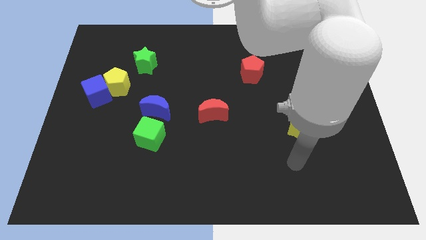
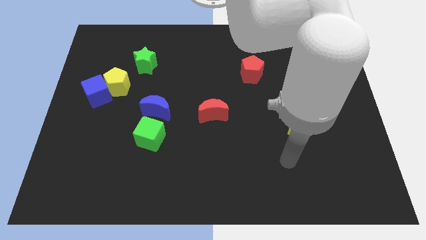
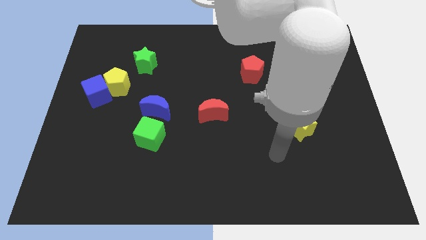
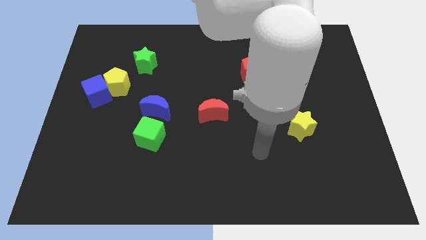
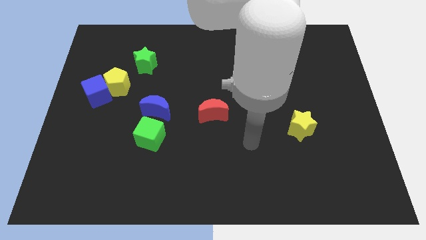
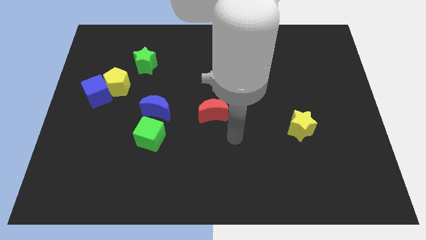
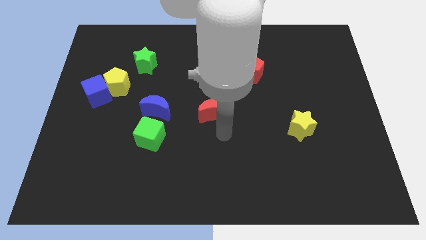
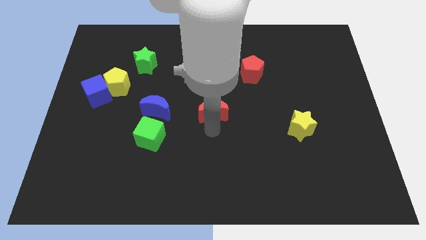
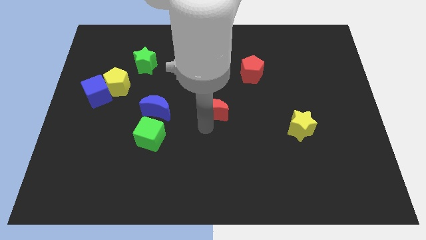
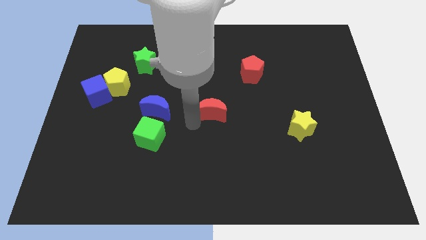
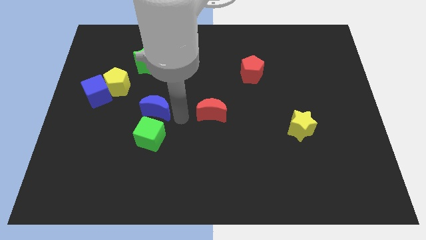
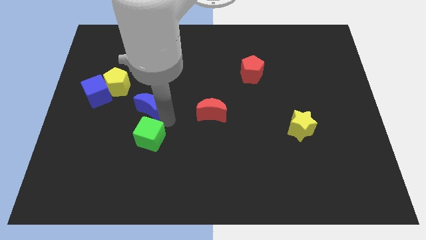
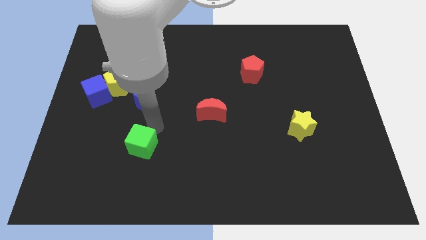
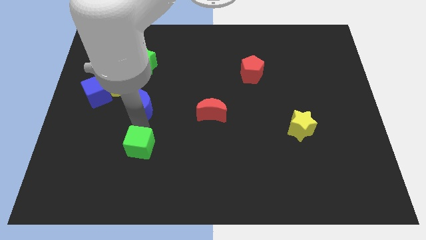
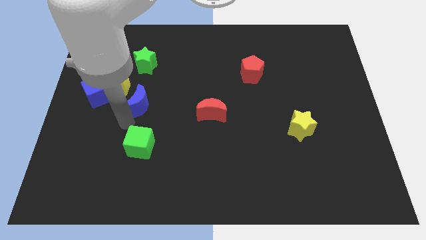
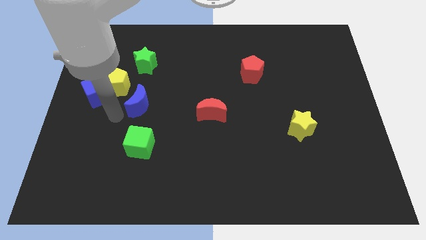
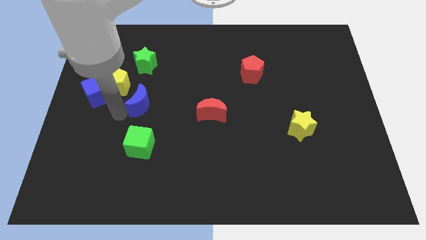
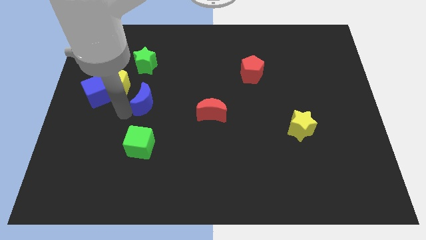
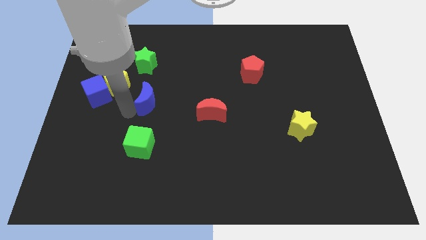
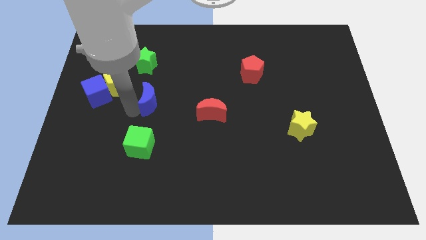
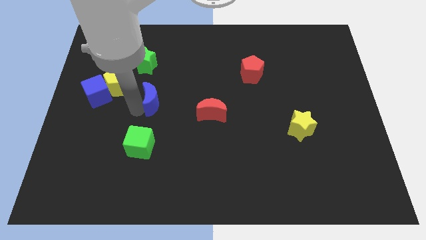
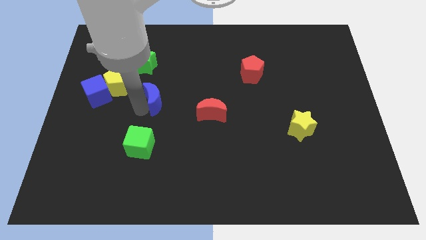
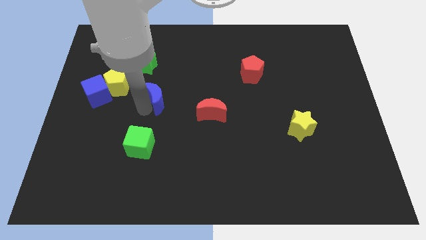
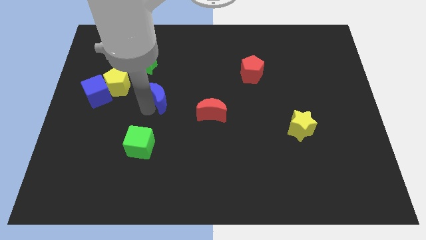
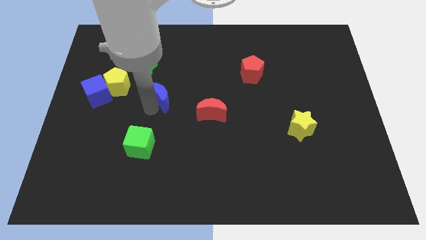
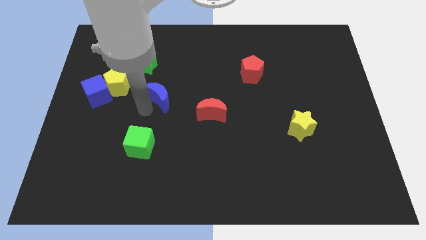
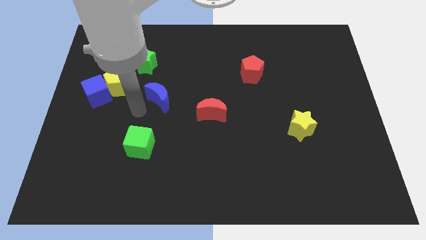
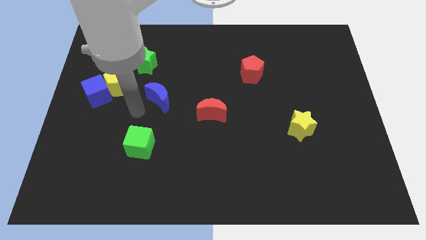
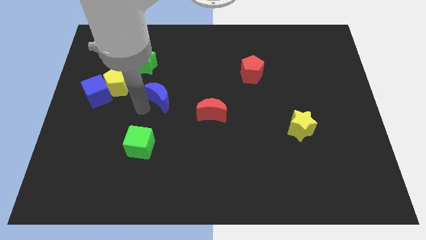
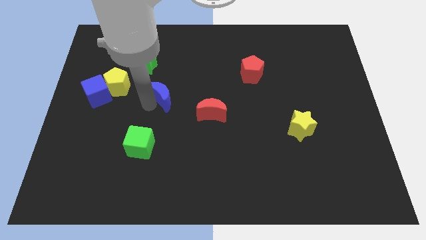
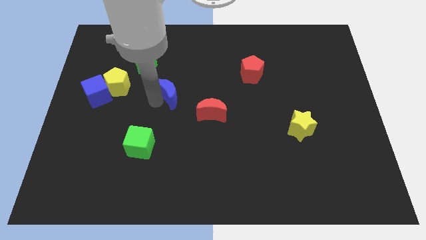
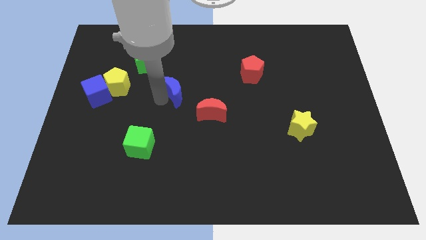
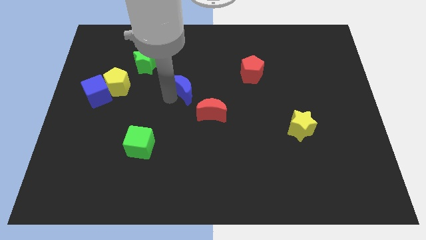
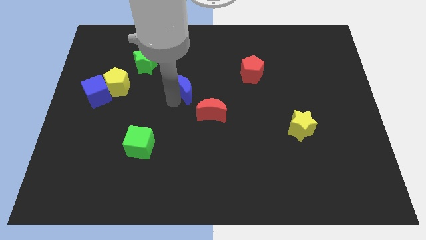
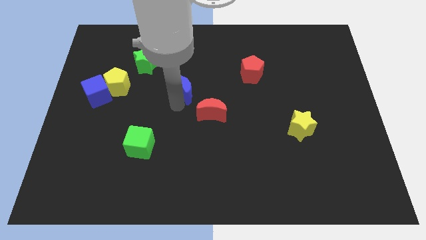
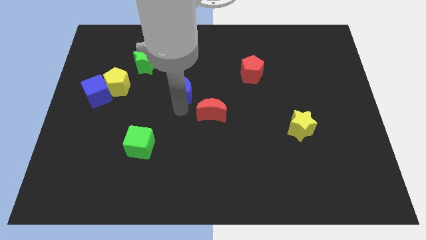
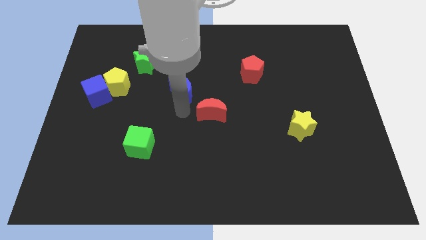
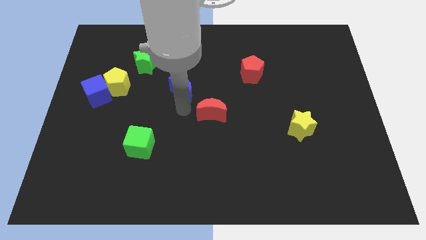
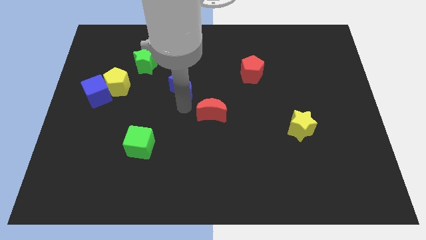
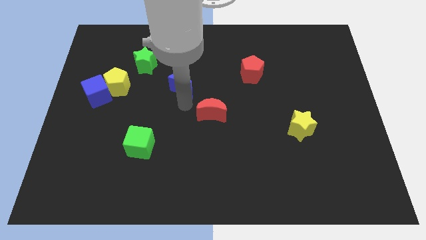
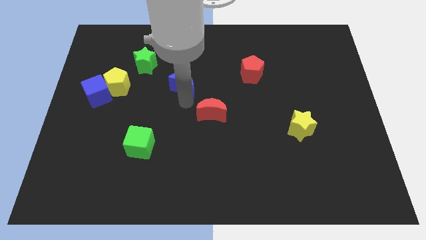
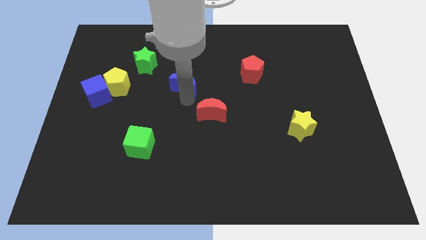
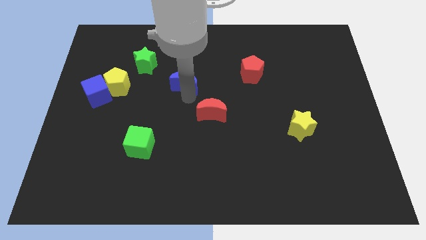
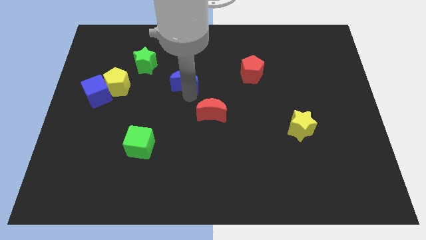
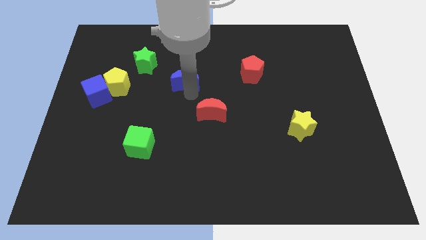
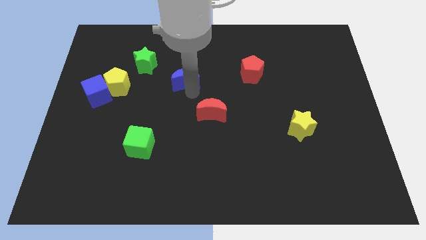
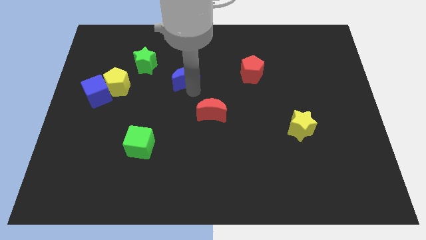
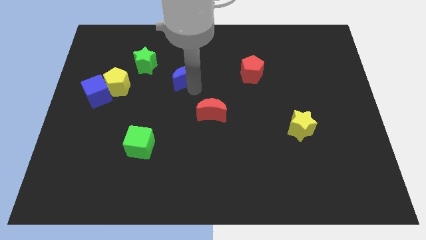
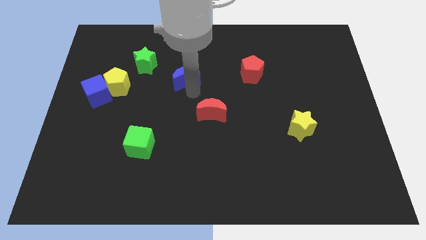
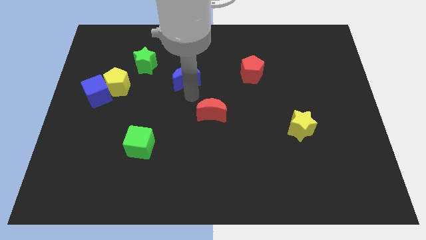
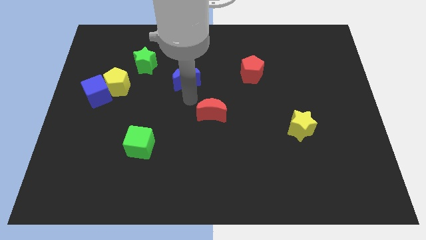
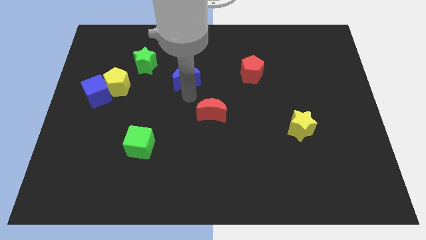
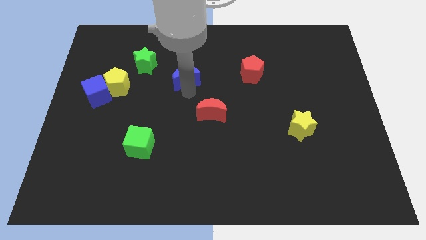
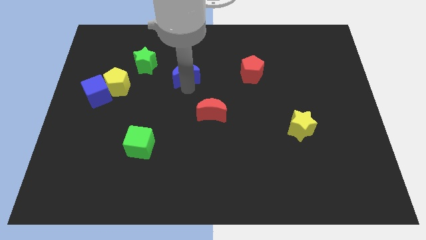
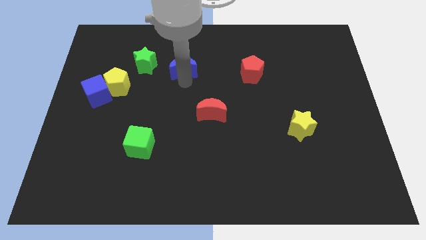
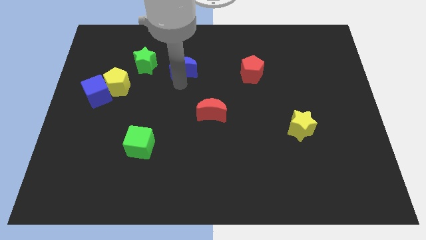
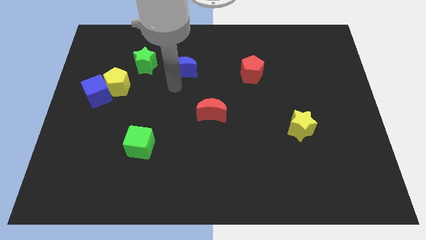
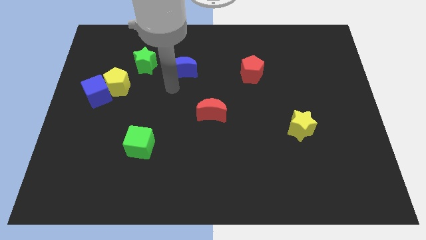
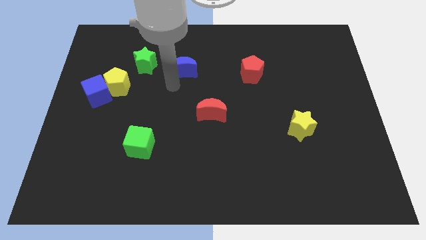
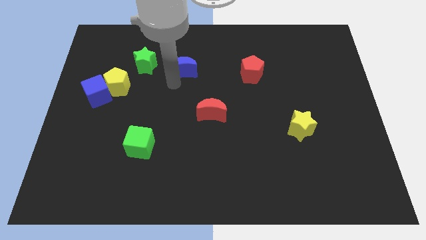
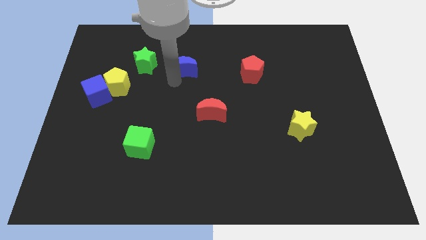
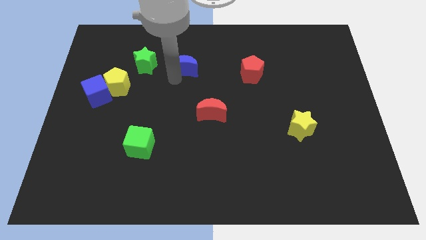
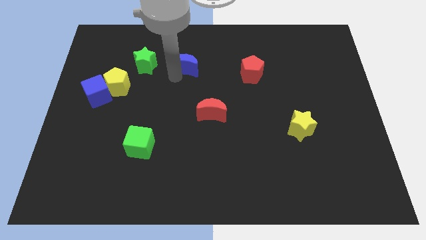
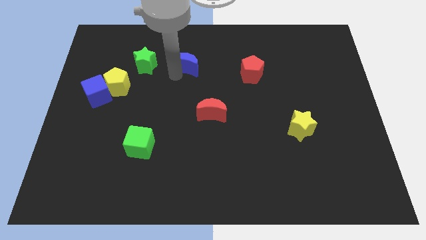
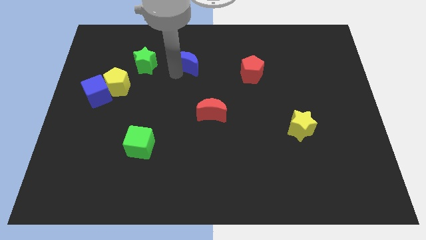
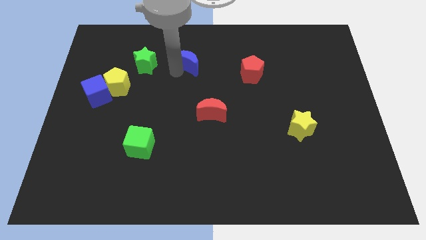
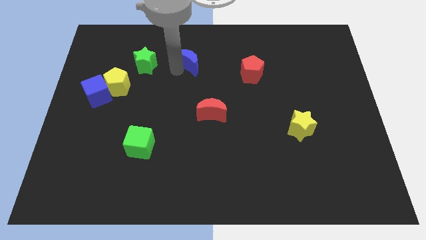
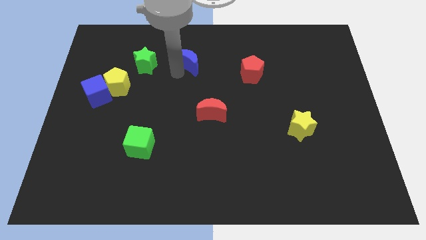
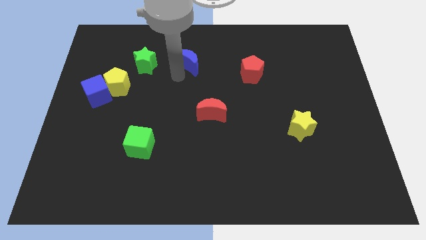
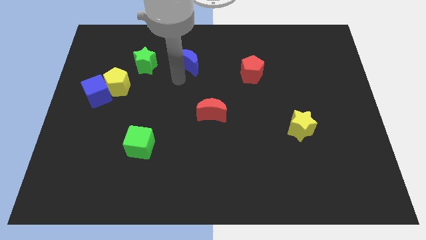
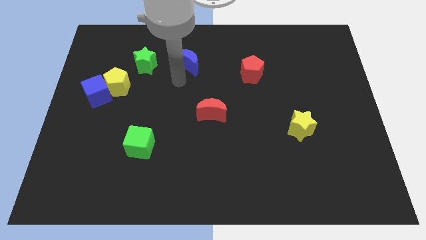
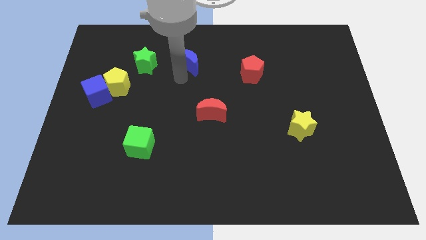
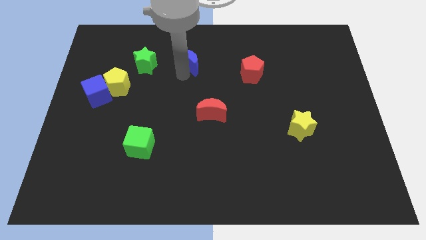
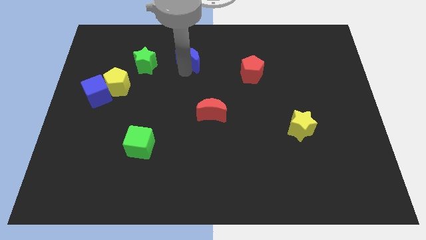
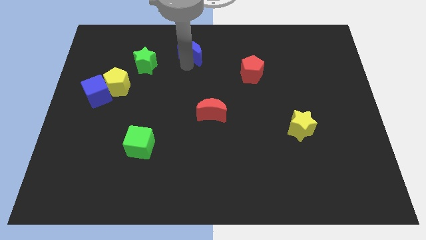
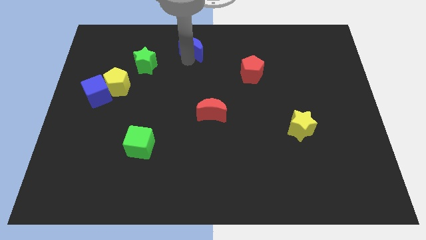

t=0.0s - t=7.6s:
put the blue moon to the towards your base
